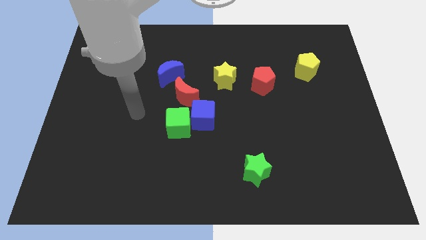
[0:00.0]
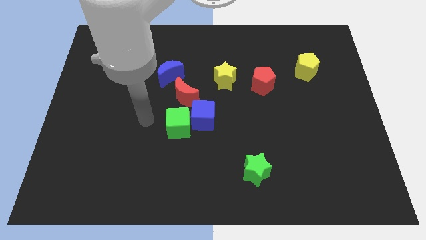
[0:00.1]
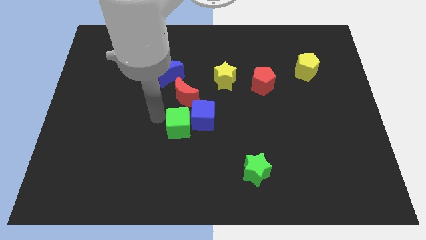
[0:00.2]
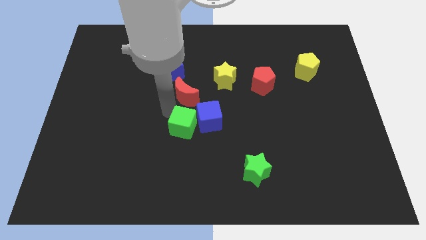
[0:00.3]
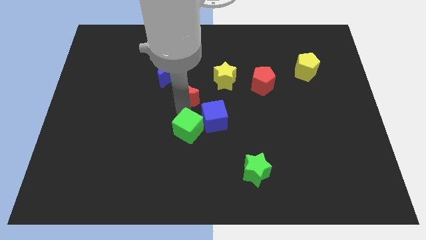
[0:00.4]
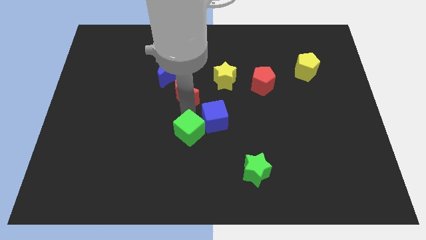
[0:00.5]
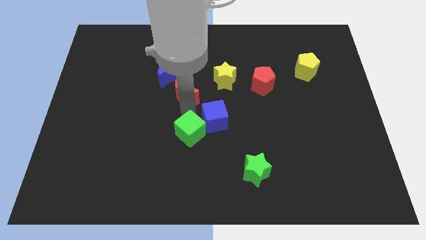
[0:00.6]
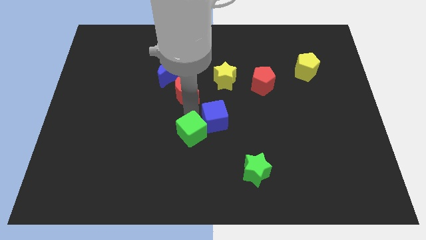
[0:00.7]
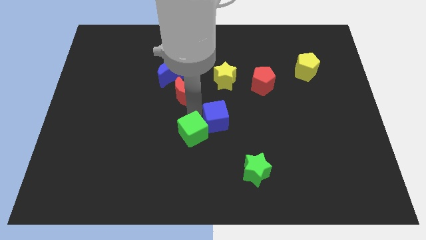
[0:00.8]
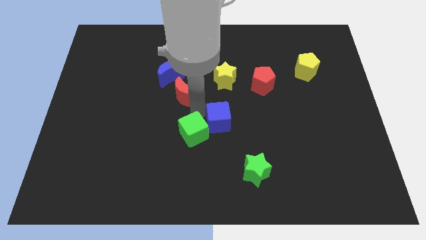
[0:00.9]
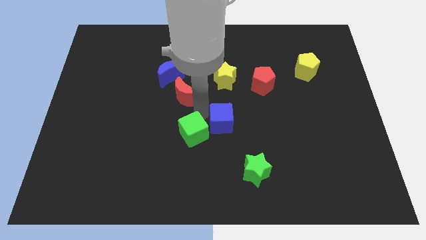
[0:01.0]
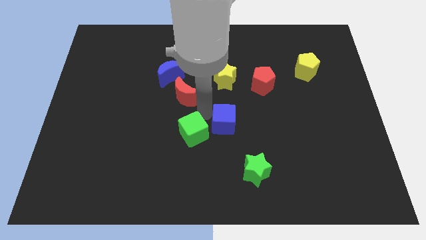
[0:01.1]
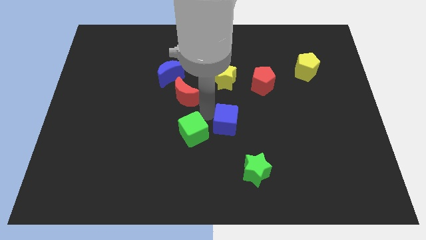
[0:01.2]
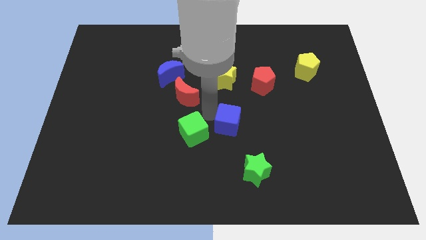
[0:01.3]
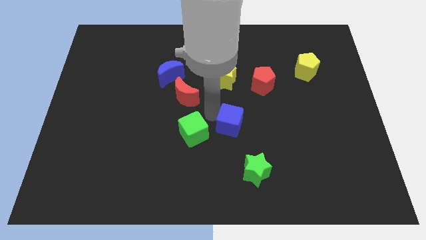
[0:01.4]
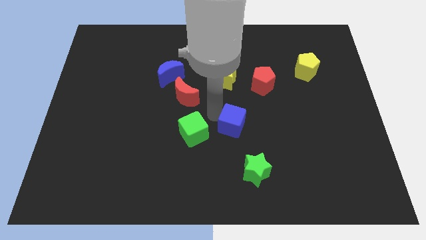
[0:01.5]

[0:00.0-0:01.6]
move the blue cube away from the green cube and red moon

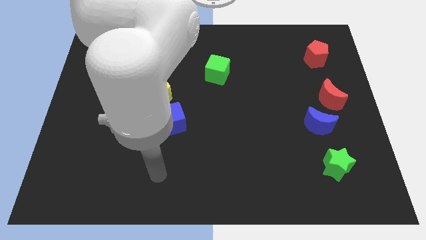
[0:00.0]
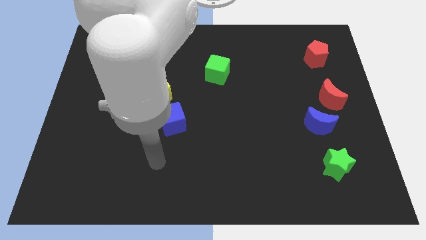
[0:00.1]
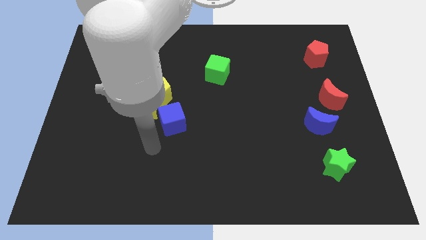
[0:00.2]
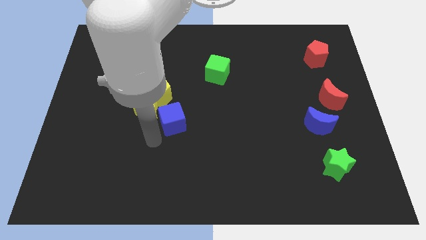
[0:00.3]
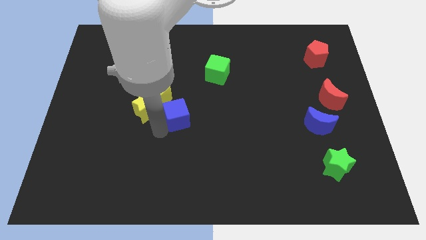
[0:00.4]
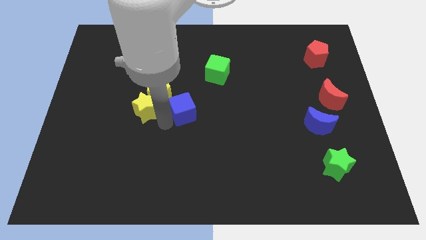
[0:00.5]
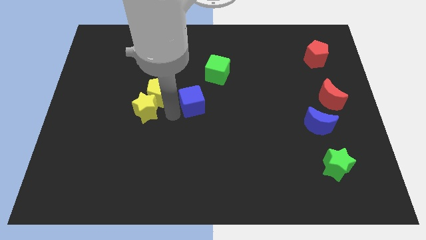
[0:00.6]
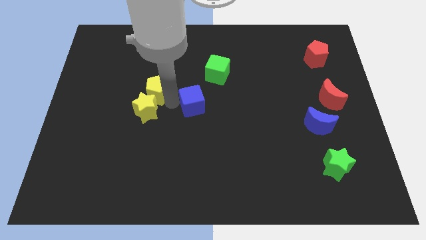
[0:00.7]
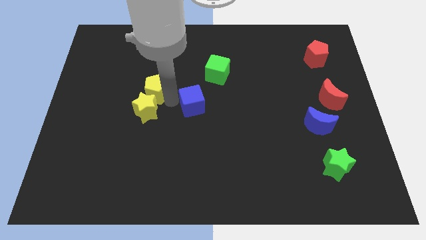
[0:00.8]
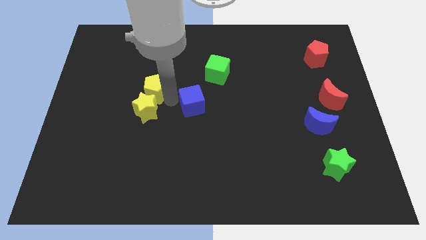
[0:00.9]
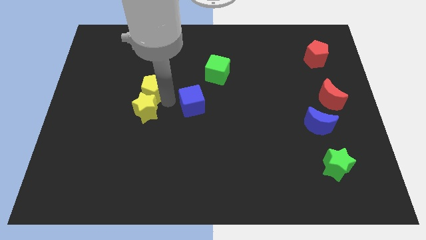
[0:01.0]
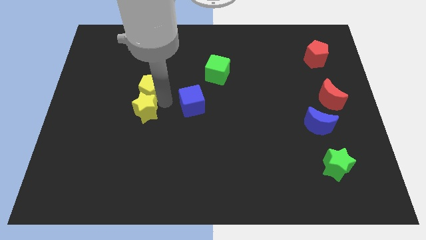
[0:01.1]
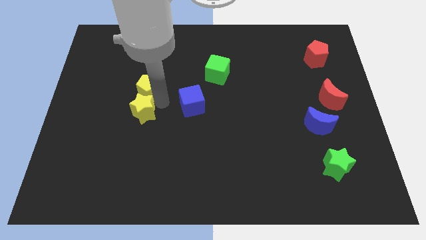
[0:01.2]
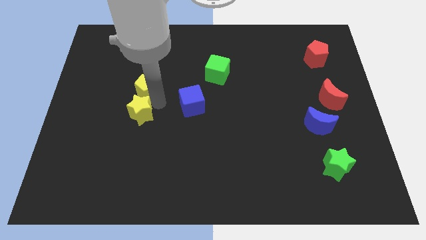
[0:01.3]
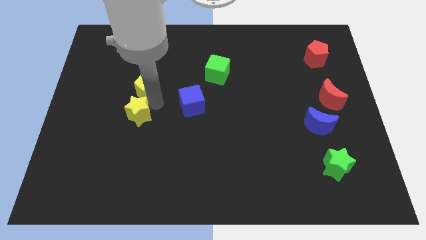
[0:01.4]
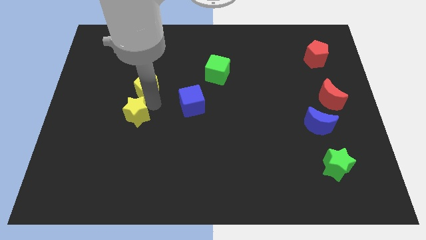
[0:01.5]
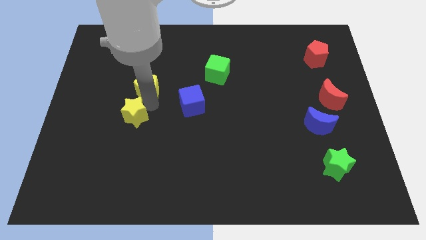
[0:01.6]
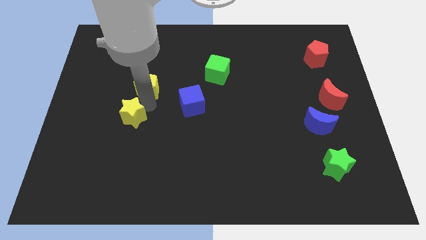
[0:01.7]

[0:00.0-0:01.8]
pull the yellow star apart from the yellow pentagon and blue cube

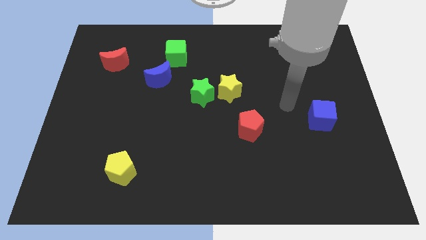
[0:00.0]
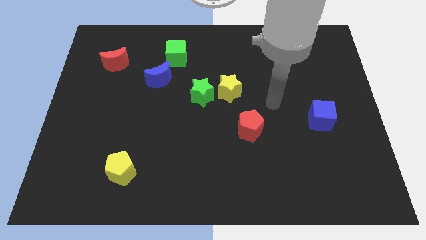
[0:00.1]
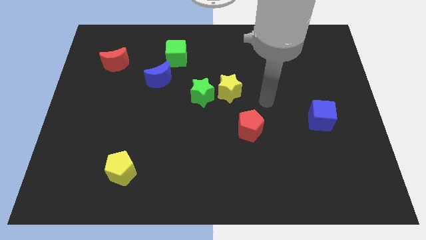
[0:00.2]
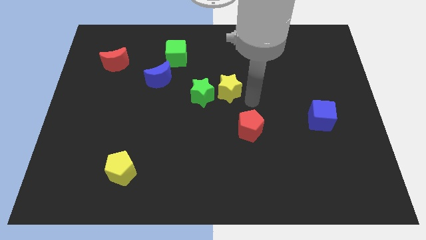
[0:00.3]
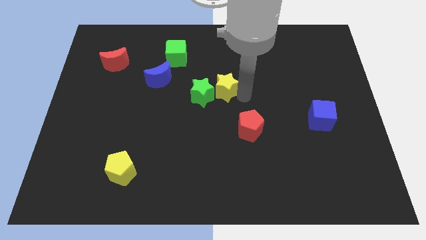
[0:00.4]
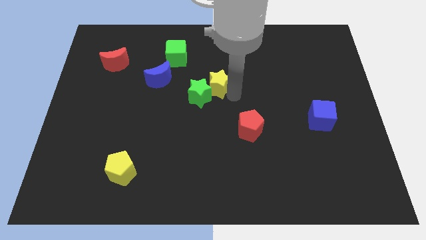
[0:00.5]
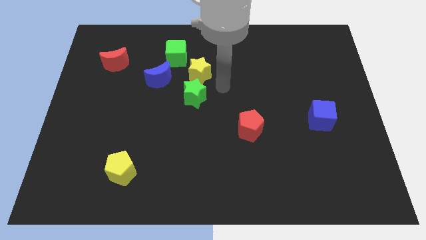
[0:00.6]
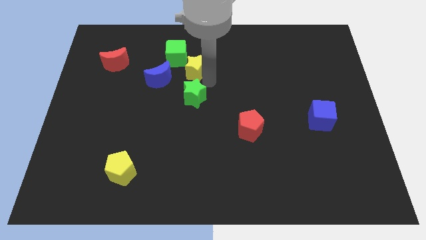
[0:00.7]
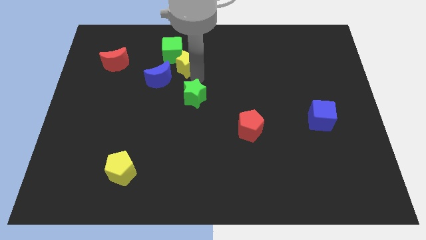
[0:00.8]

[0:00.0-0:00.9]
move the green star away from the yellow star

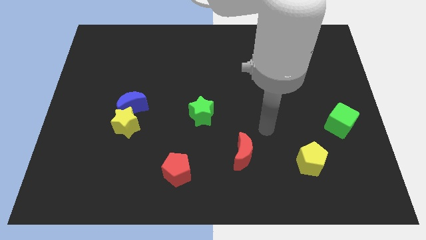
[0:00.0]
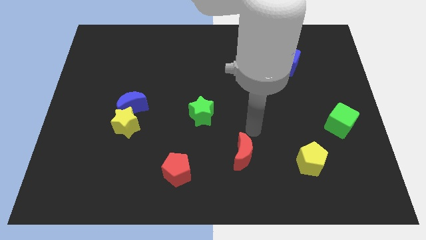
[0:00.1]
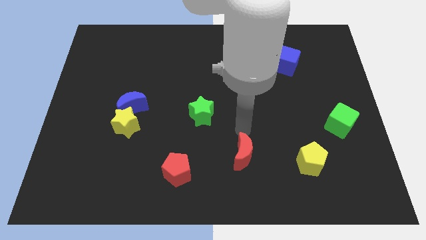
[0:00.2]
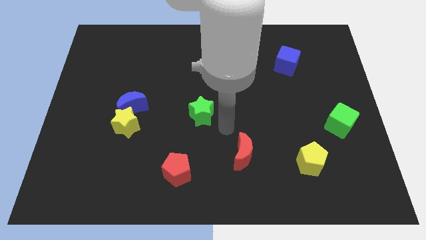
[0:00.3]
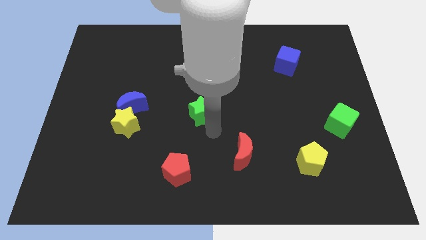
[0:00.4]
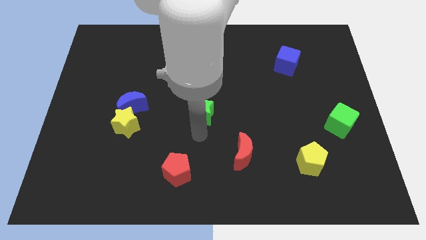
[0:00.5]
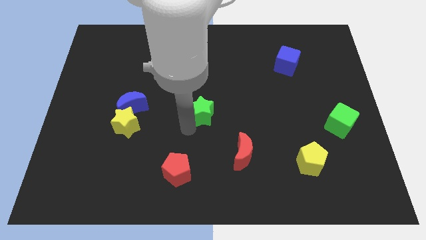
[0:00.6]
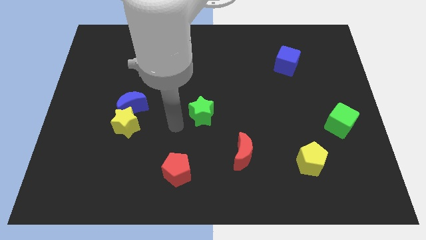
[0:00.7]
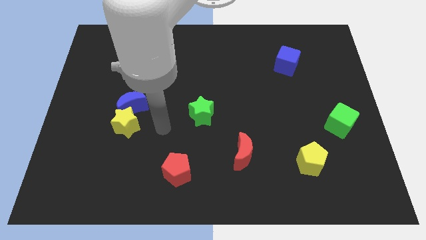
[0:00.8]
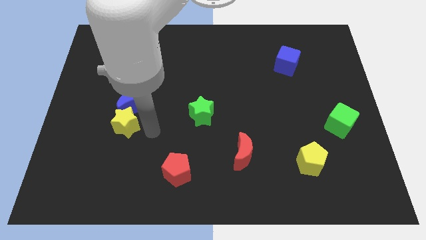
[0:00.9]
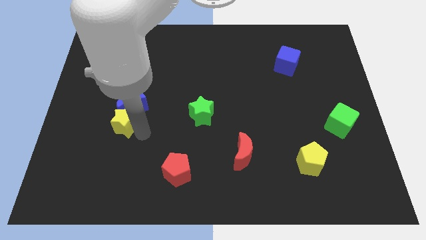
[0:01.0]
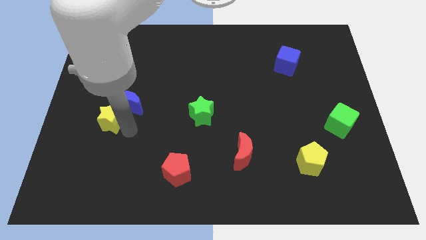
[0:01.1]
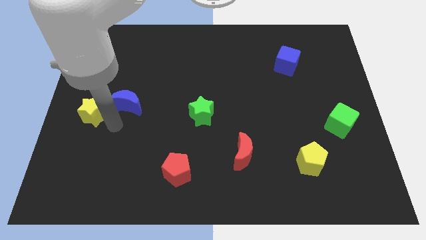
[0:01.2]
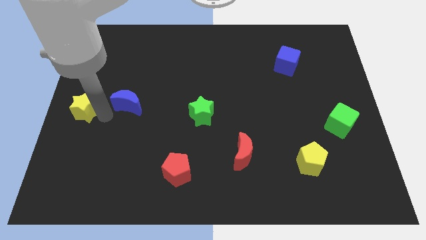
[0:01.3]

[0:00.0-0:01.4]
move the blue moon away from the yellow star

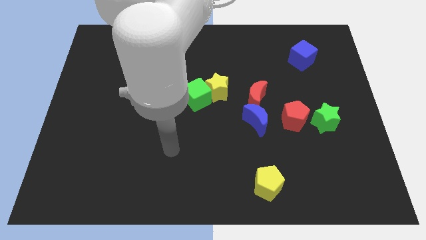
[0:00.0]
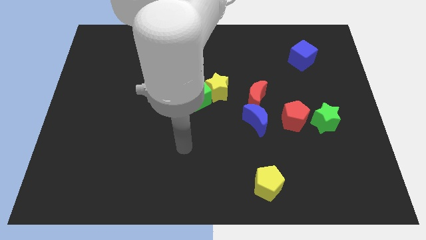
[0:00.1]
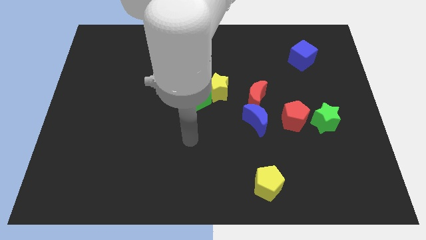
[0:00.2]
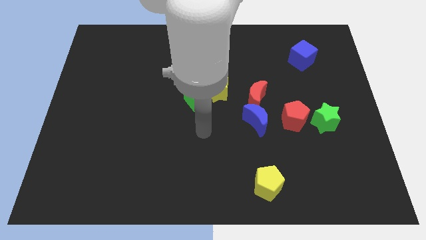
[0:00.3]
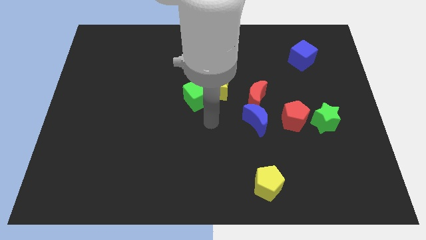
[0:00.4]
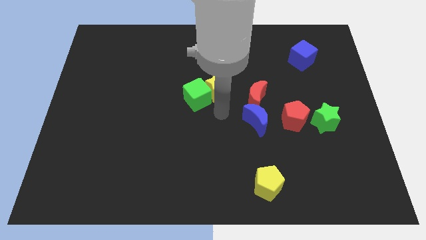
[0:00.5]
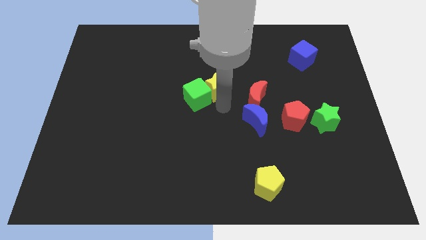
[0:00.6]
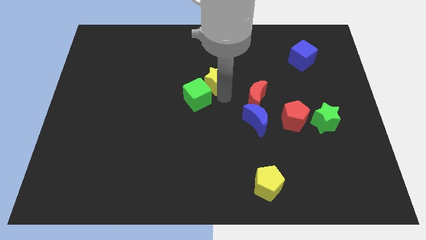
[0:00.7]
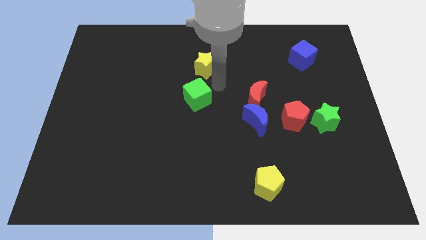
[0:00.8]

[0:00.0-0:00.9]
separate the green cube from the yellow star

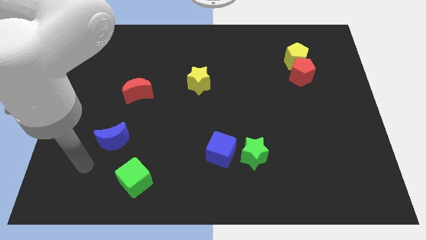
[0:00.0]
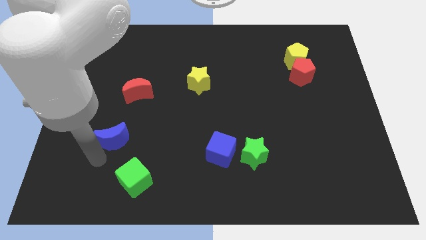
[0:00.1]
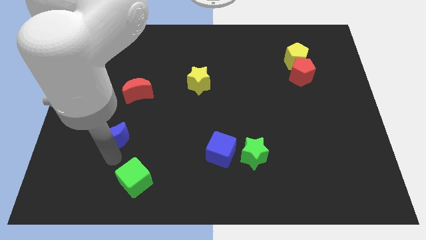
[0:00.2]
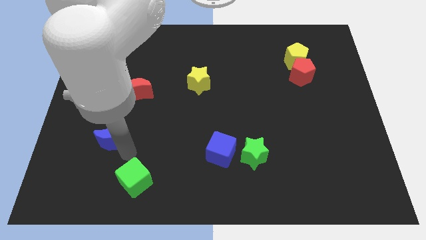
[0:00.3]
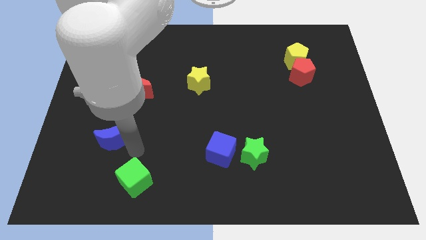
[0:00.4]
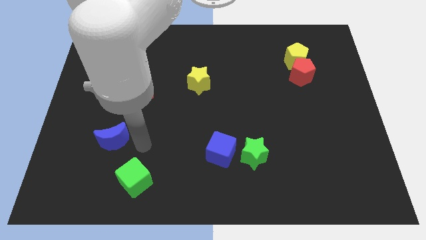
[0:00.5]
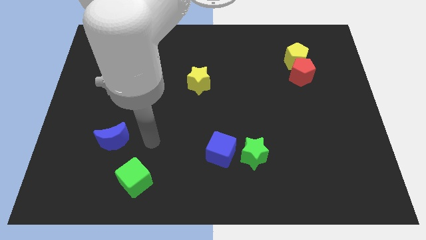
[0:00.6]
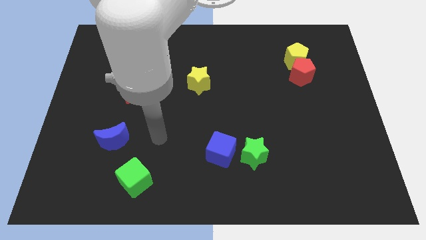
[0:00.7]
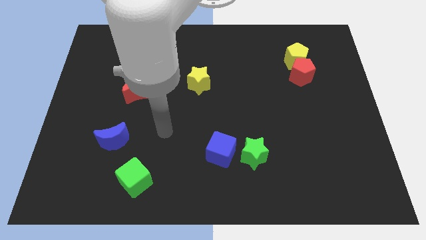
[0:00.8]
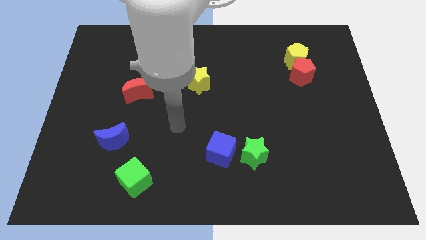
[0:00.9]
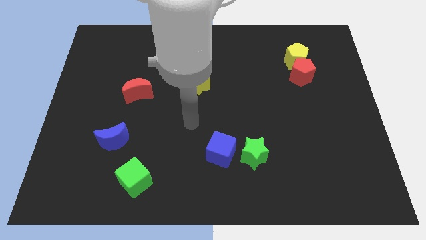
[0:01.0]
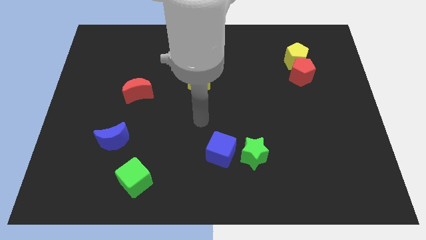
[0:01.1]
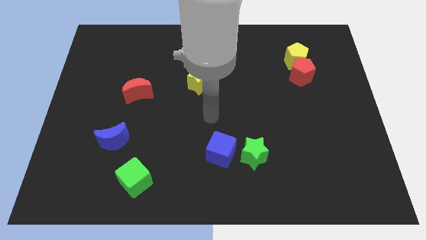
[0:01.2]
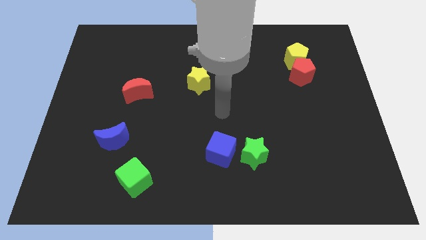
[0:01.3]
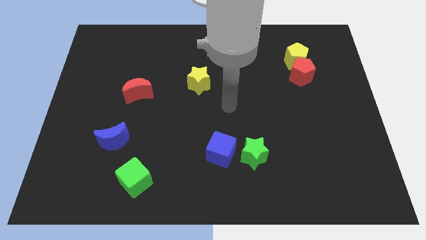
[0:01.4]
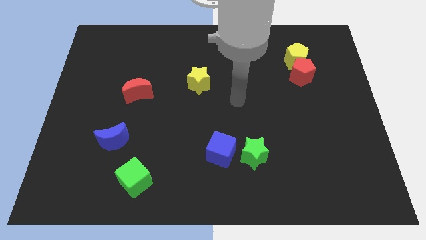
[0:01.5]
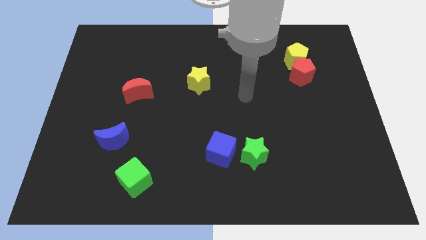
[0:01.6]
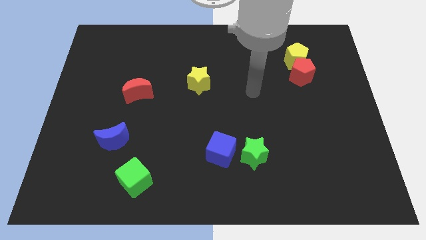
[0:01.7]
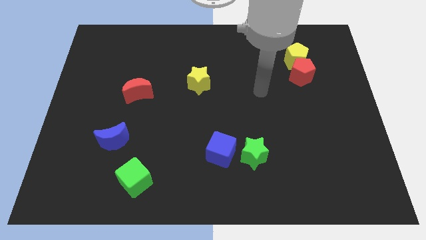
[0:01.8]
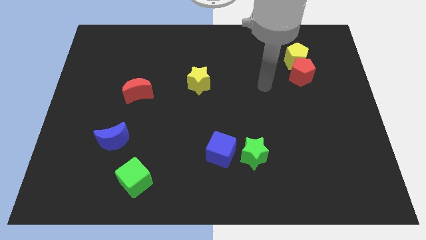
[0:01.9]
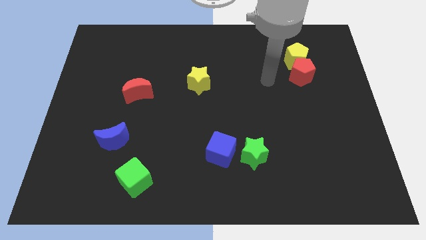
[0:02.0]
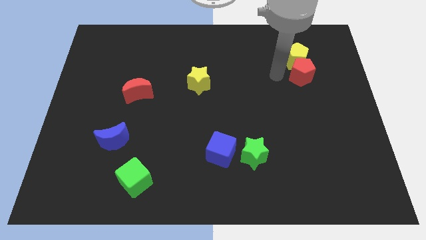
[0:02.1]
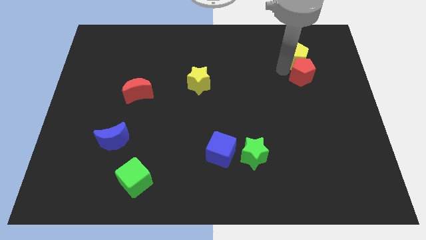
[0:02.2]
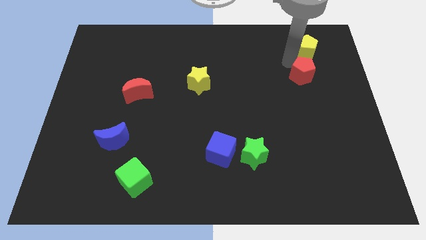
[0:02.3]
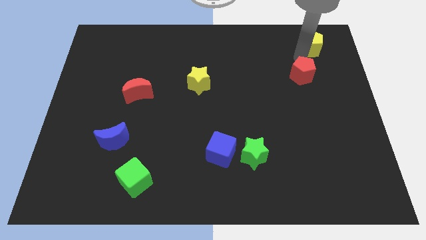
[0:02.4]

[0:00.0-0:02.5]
separate the red pentagon from the yellow pentagon
